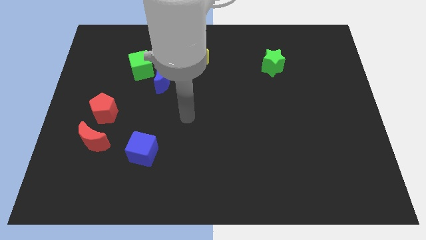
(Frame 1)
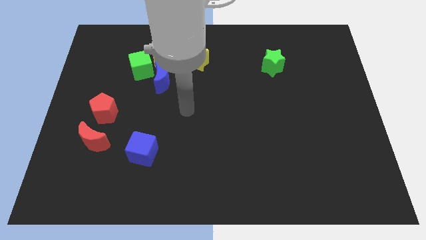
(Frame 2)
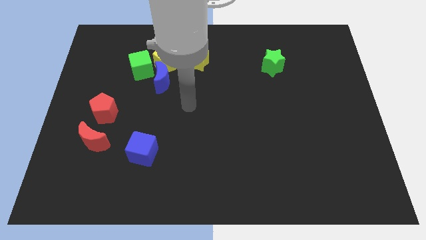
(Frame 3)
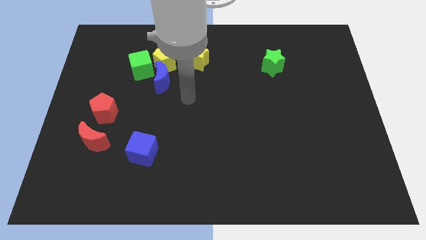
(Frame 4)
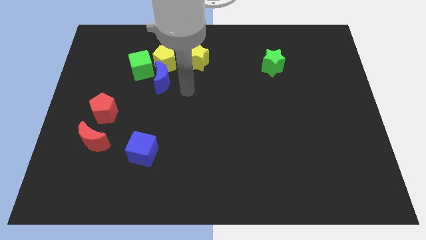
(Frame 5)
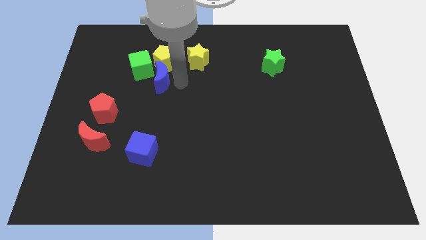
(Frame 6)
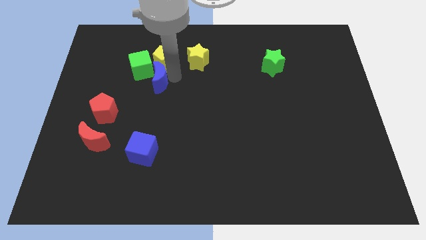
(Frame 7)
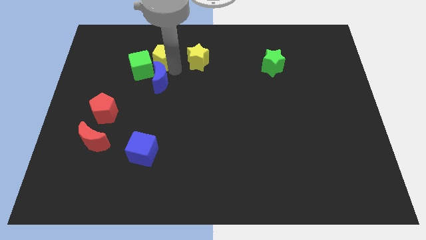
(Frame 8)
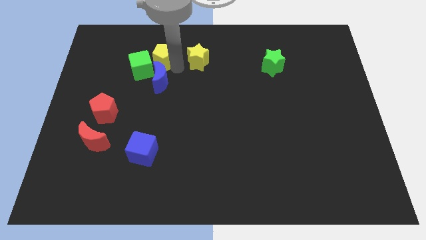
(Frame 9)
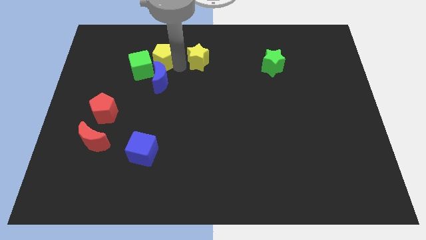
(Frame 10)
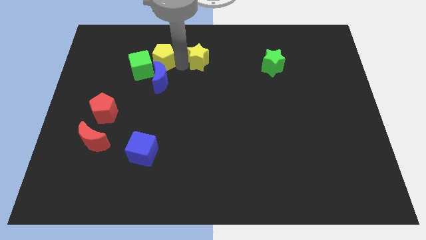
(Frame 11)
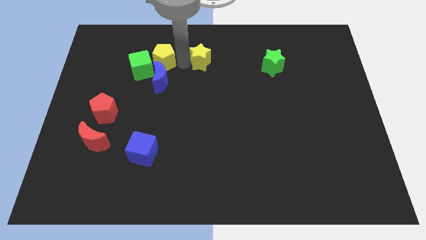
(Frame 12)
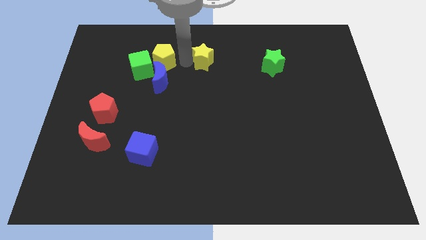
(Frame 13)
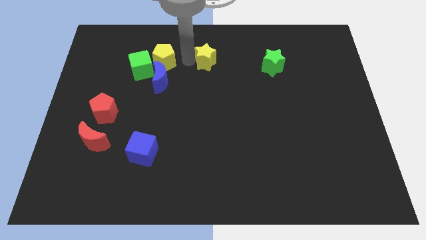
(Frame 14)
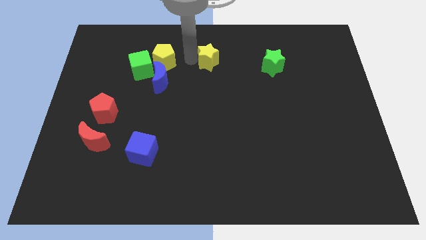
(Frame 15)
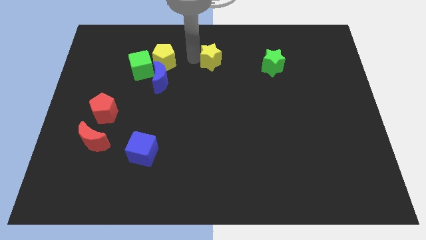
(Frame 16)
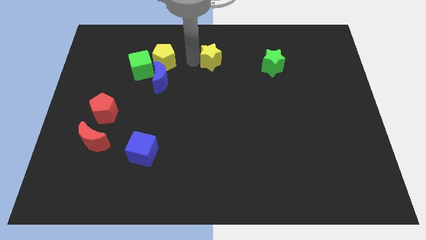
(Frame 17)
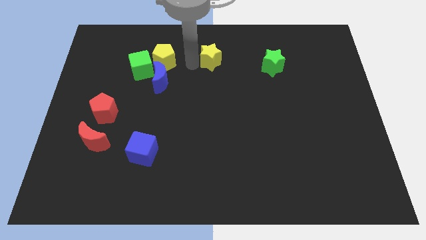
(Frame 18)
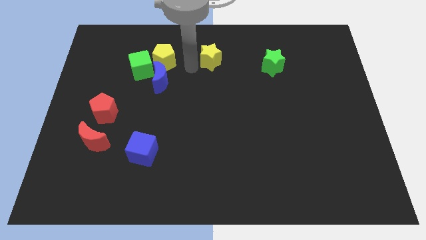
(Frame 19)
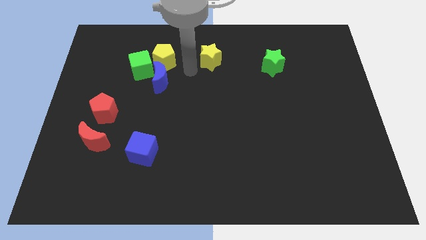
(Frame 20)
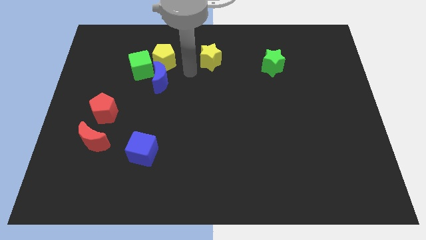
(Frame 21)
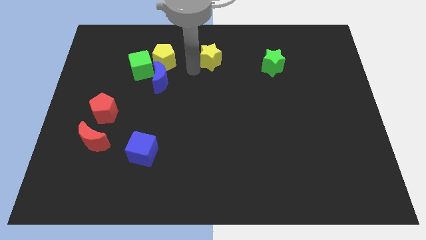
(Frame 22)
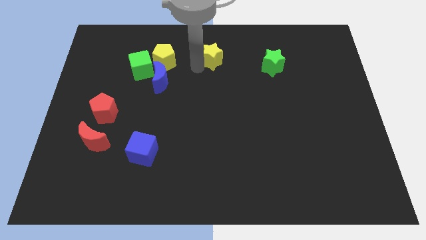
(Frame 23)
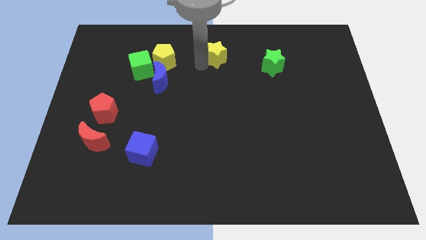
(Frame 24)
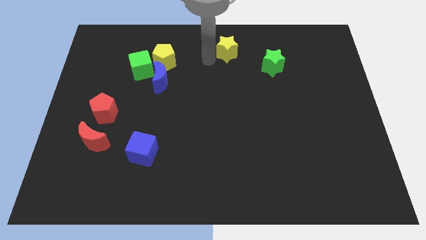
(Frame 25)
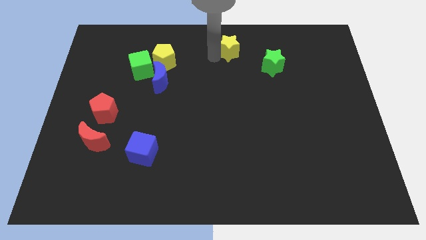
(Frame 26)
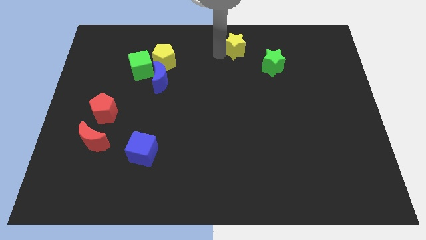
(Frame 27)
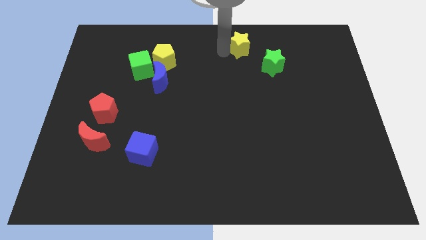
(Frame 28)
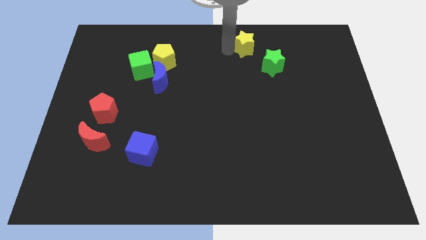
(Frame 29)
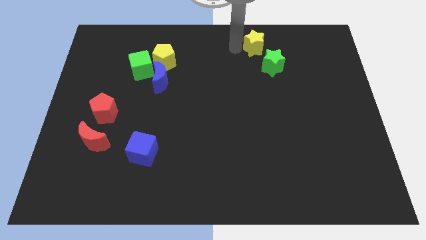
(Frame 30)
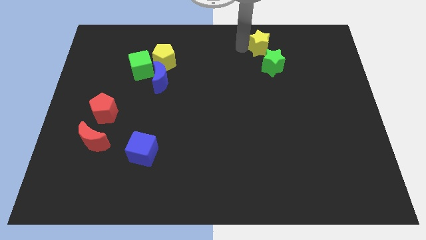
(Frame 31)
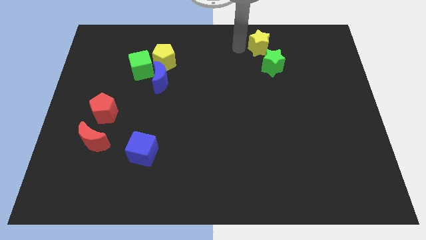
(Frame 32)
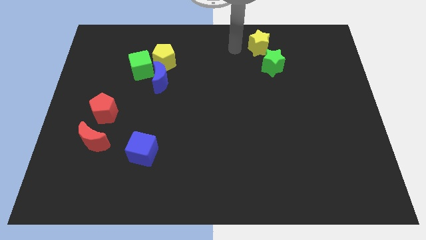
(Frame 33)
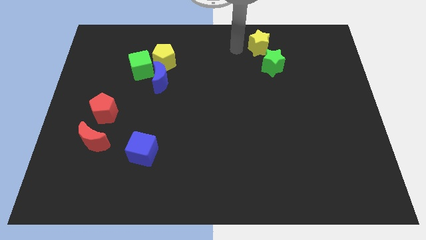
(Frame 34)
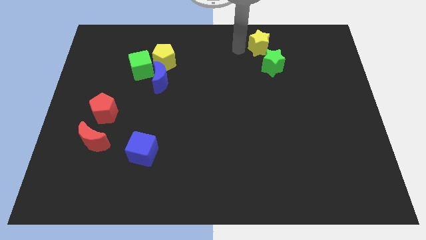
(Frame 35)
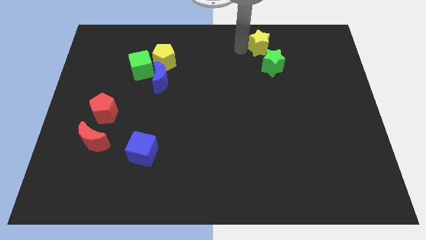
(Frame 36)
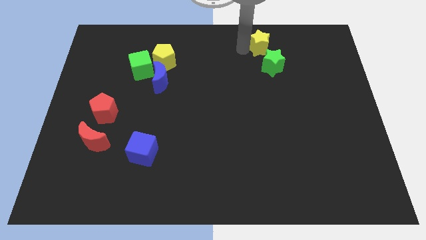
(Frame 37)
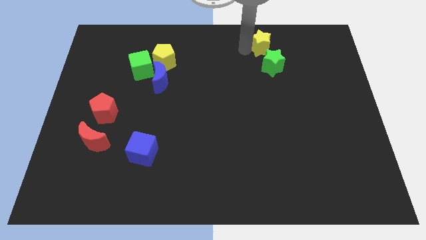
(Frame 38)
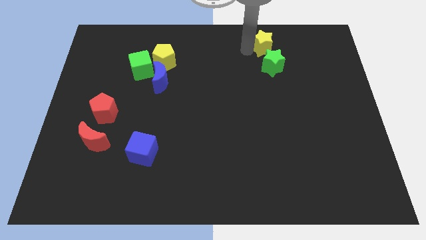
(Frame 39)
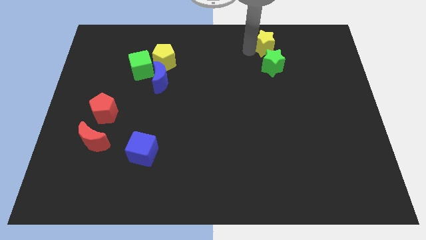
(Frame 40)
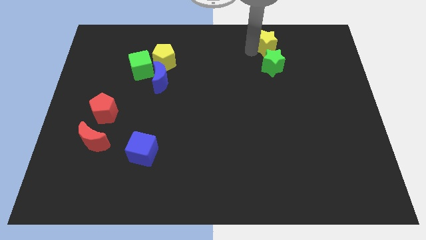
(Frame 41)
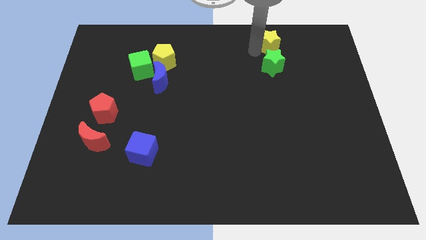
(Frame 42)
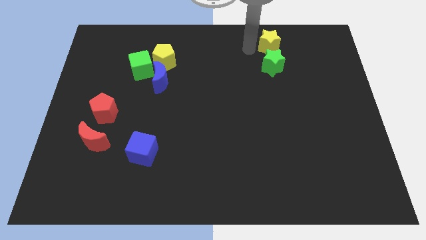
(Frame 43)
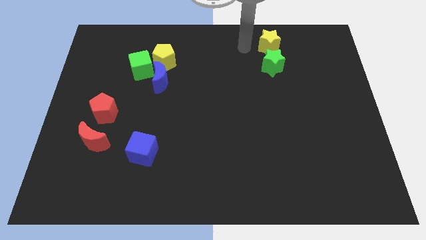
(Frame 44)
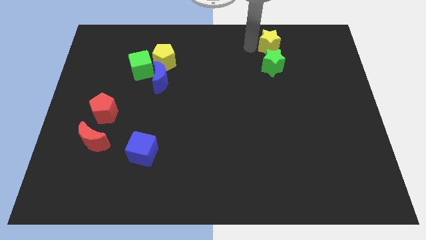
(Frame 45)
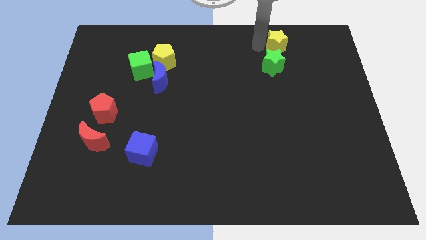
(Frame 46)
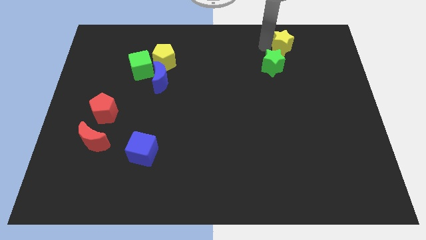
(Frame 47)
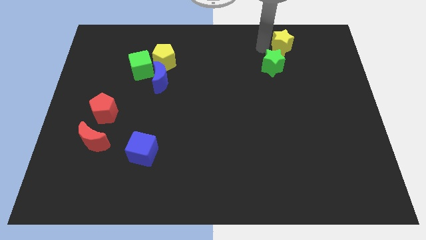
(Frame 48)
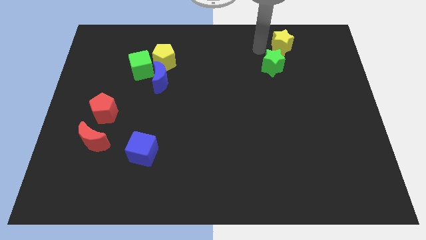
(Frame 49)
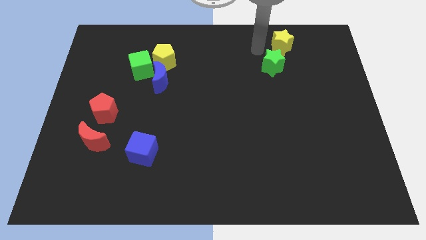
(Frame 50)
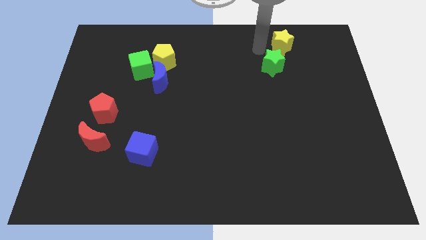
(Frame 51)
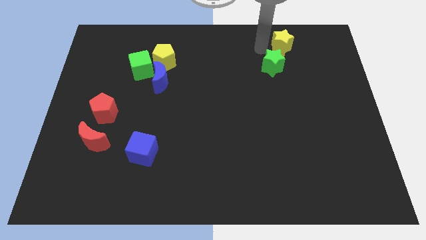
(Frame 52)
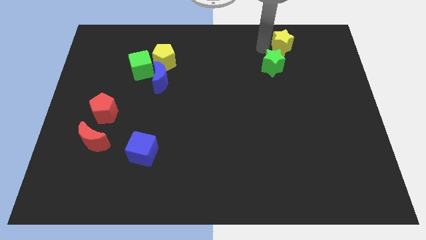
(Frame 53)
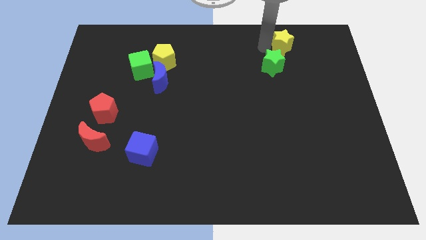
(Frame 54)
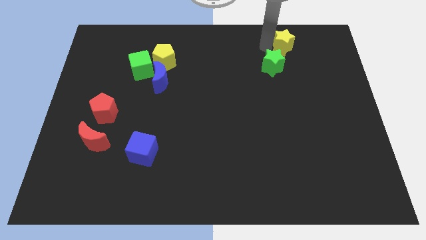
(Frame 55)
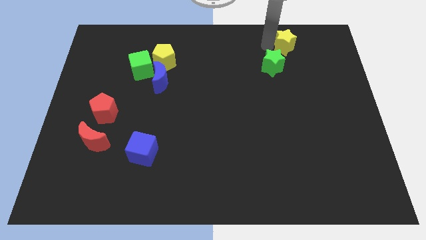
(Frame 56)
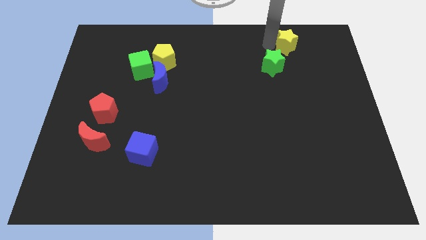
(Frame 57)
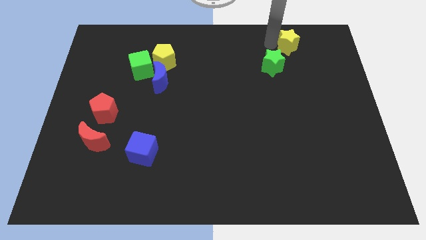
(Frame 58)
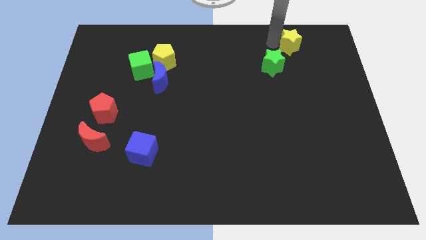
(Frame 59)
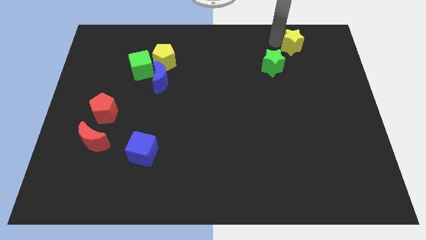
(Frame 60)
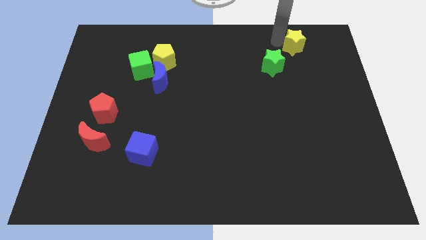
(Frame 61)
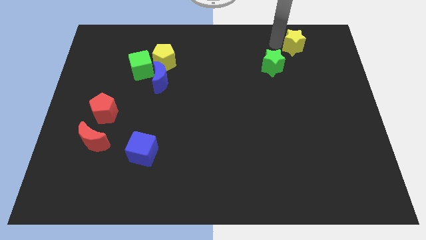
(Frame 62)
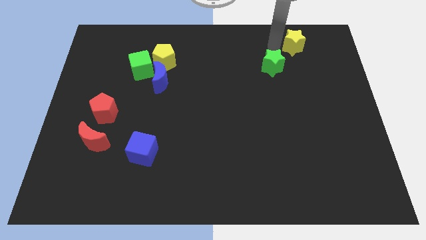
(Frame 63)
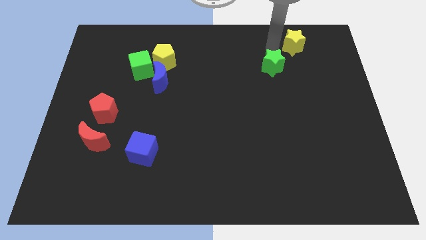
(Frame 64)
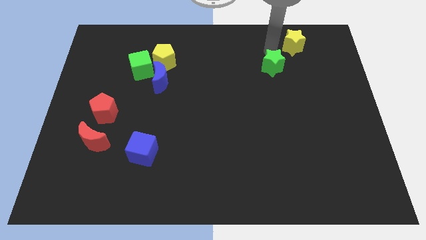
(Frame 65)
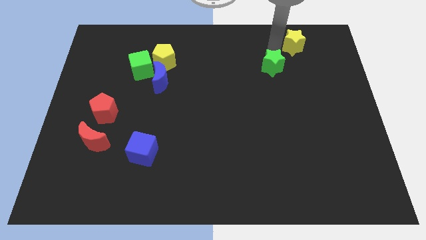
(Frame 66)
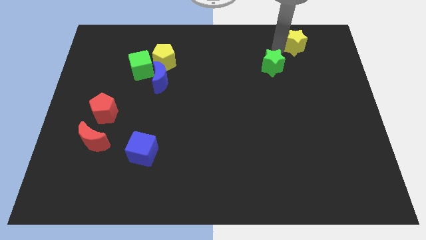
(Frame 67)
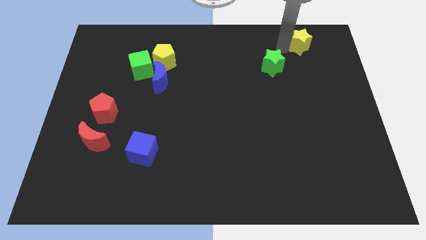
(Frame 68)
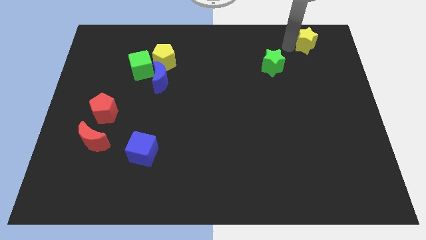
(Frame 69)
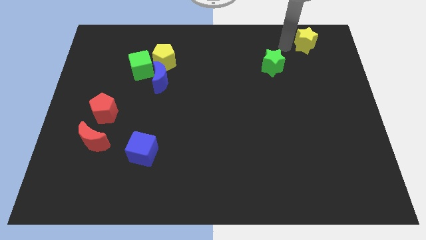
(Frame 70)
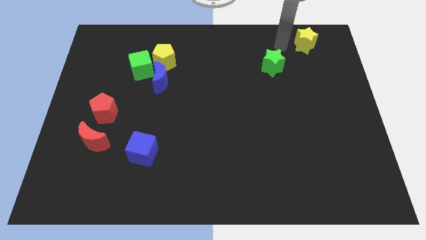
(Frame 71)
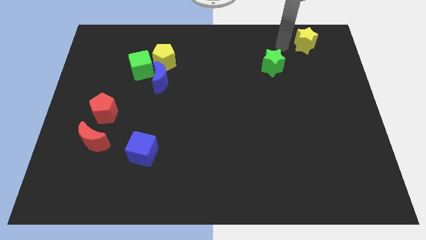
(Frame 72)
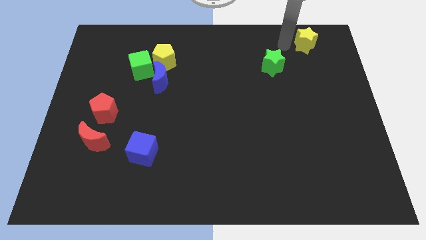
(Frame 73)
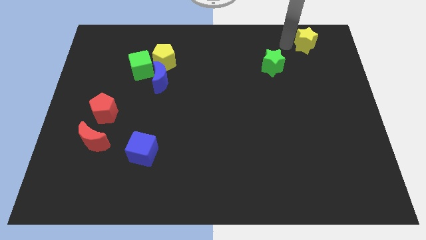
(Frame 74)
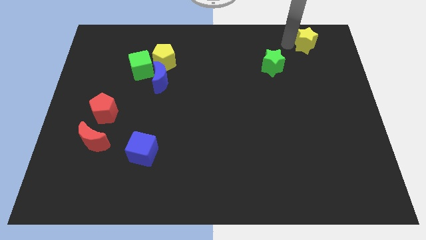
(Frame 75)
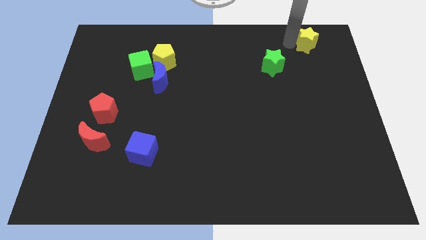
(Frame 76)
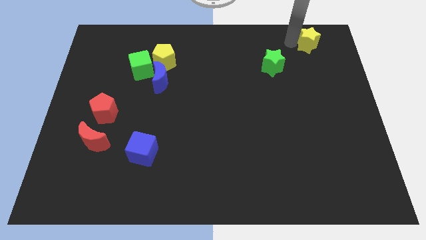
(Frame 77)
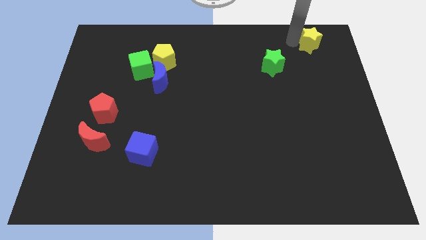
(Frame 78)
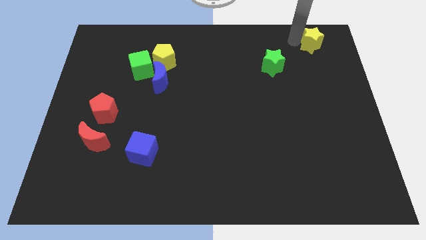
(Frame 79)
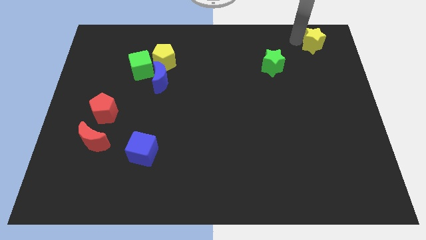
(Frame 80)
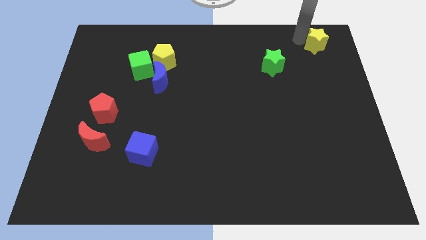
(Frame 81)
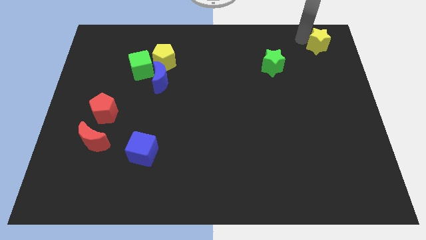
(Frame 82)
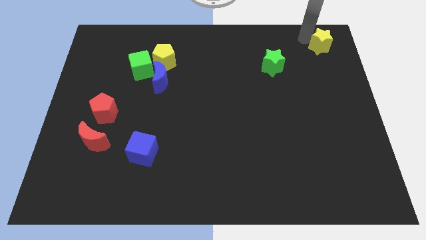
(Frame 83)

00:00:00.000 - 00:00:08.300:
push the yellow star to the top right of the board
